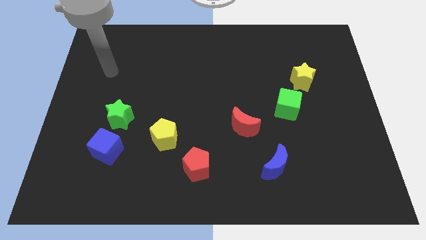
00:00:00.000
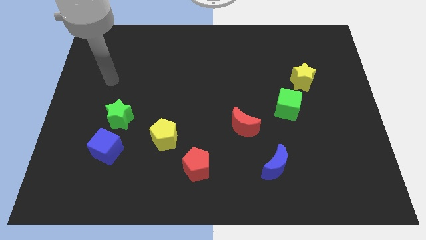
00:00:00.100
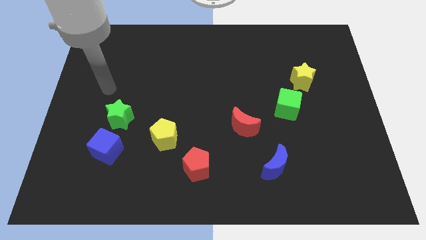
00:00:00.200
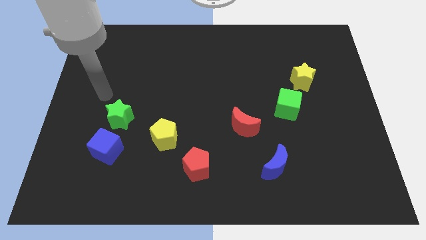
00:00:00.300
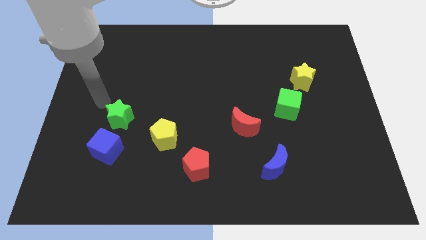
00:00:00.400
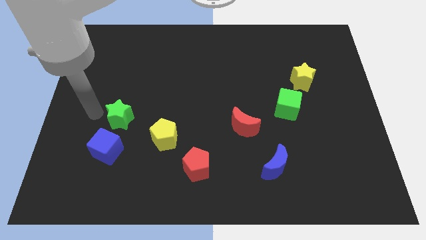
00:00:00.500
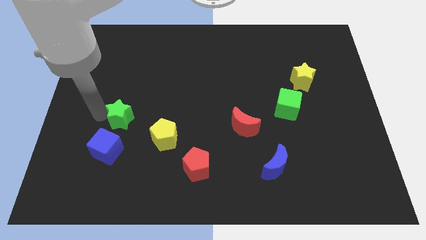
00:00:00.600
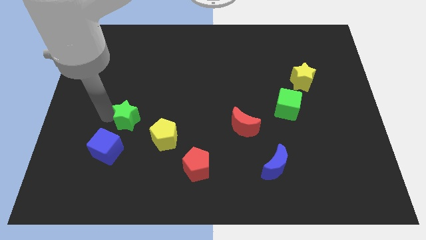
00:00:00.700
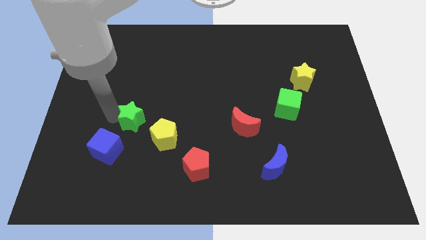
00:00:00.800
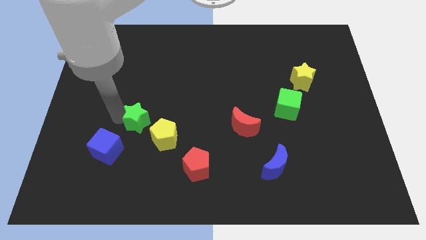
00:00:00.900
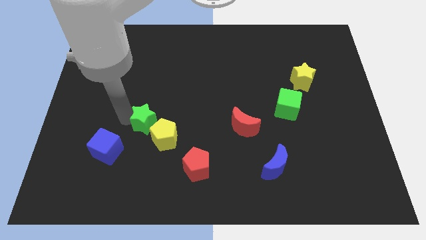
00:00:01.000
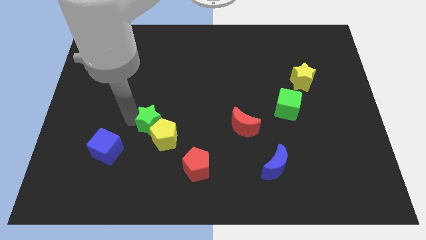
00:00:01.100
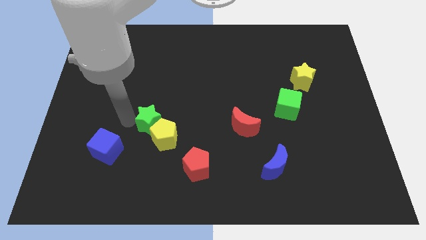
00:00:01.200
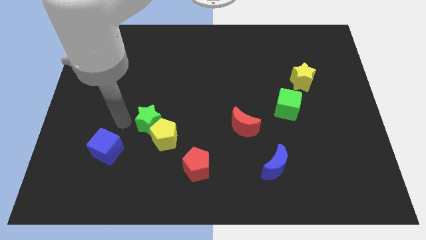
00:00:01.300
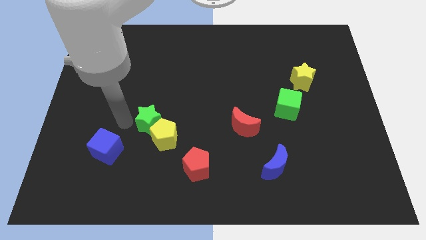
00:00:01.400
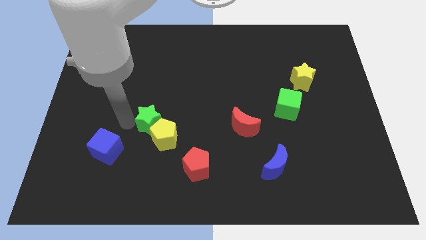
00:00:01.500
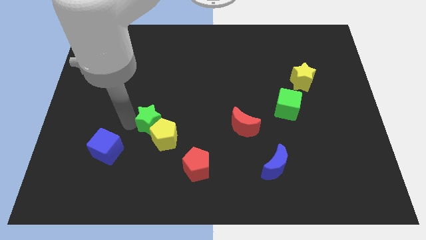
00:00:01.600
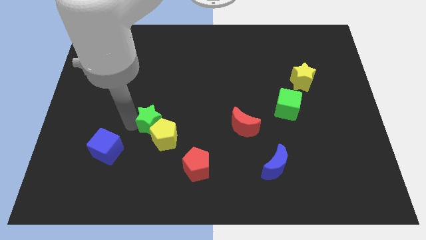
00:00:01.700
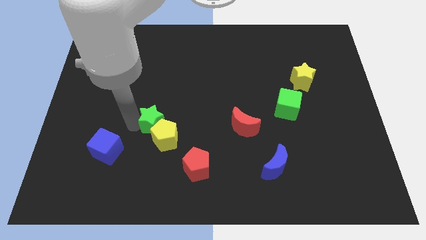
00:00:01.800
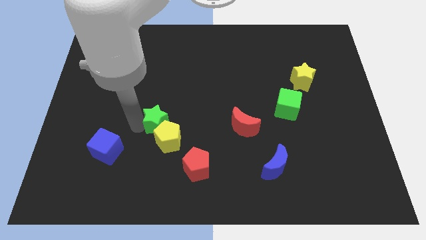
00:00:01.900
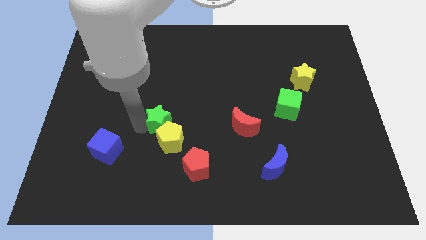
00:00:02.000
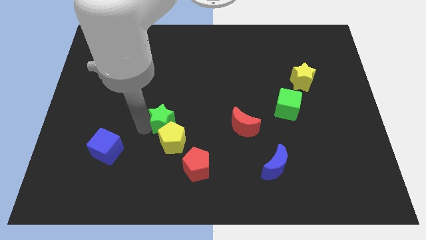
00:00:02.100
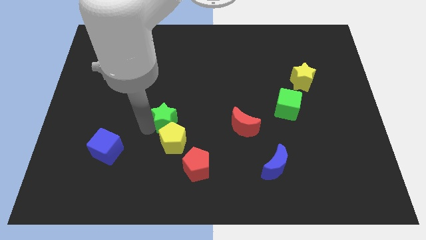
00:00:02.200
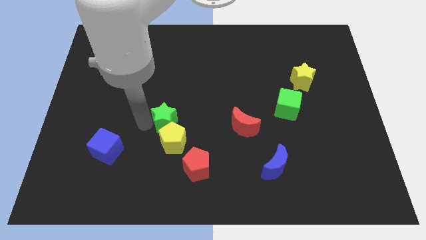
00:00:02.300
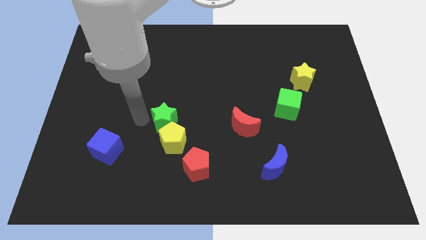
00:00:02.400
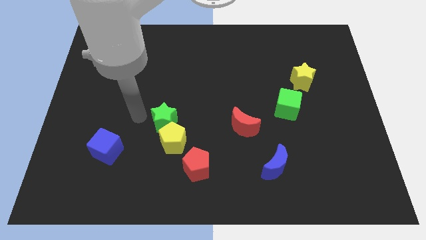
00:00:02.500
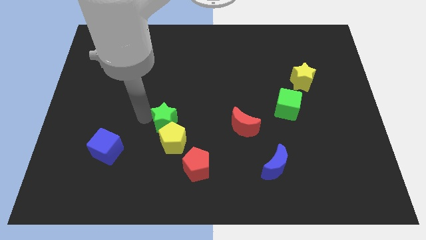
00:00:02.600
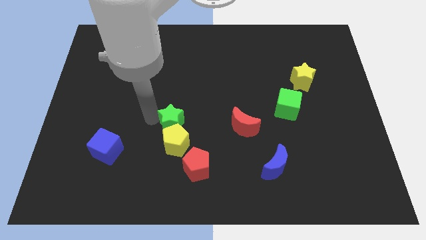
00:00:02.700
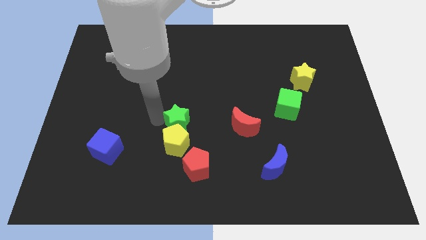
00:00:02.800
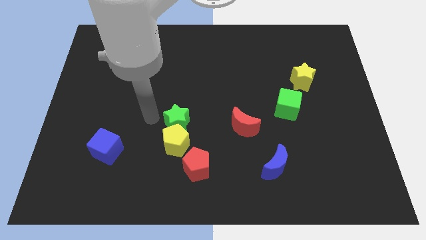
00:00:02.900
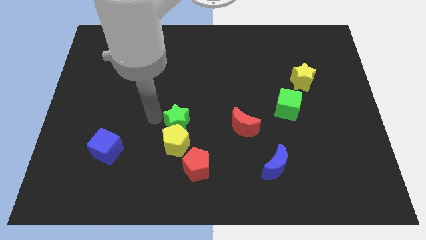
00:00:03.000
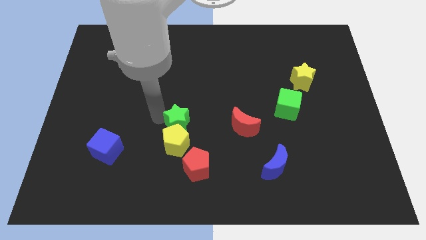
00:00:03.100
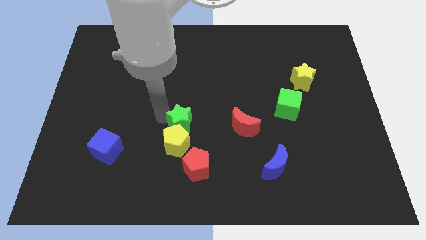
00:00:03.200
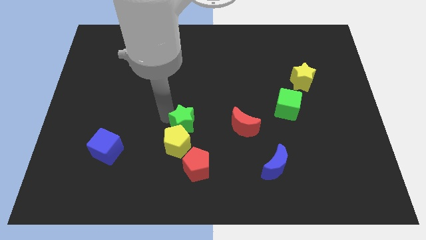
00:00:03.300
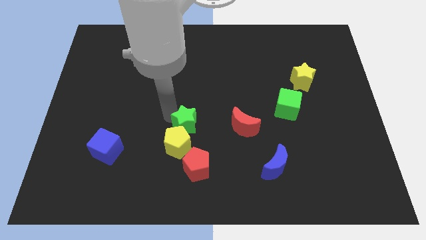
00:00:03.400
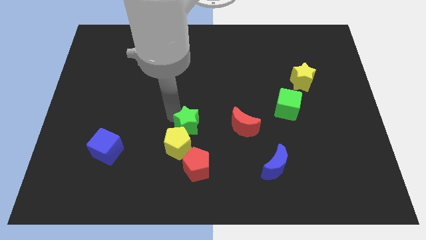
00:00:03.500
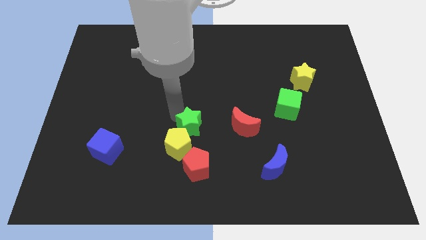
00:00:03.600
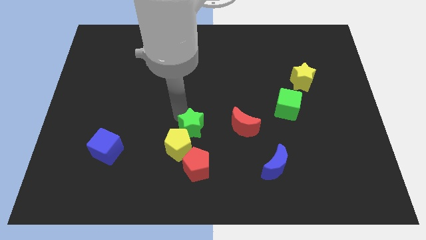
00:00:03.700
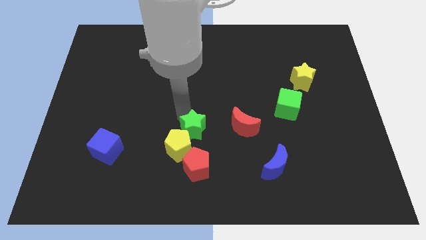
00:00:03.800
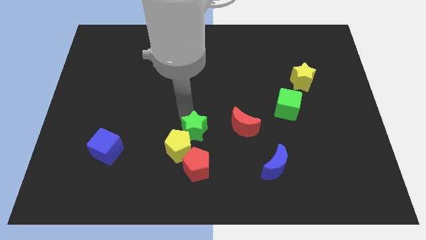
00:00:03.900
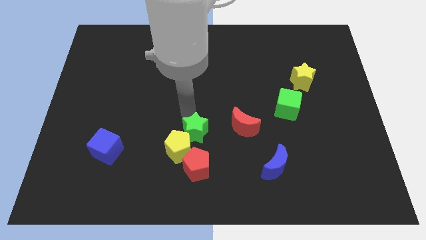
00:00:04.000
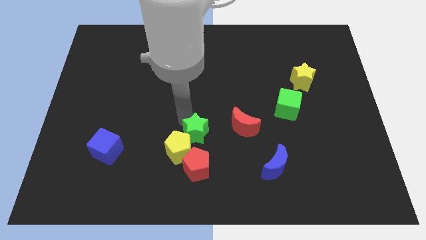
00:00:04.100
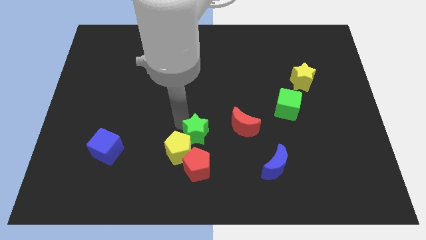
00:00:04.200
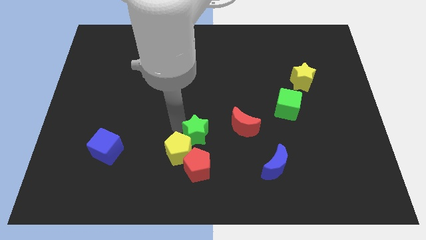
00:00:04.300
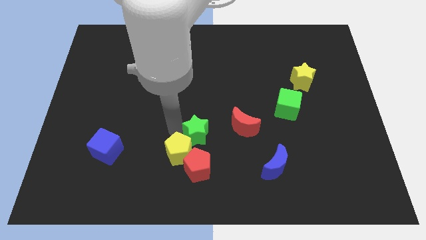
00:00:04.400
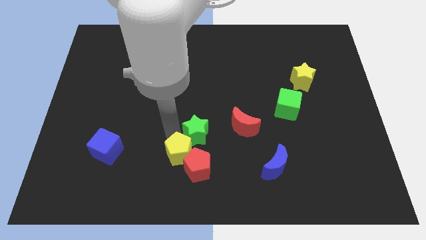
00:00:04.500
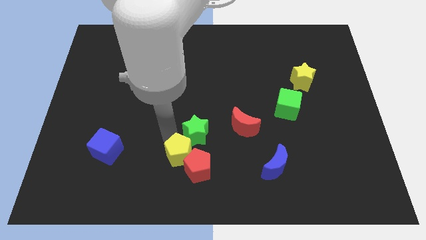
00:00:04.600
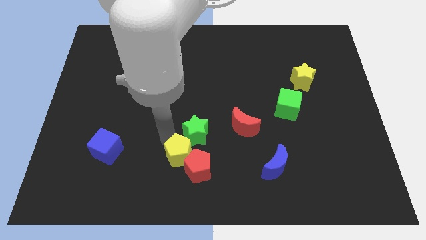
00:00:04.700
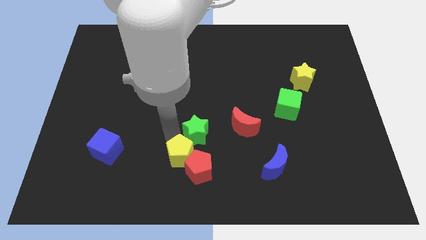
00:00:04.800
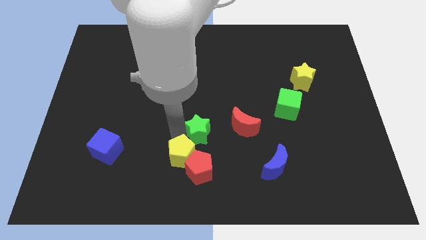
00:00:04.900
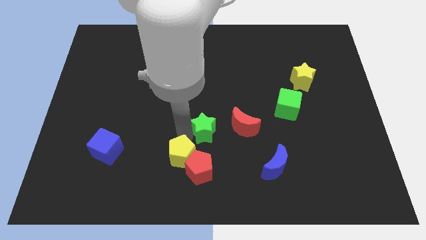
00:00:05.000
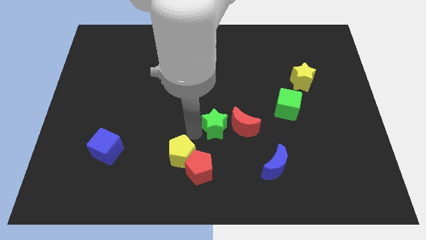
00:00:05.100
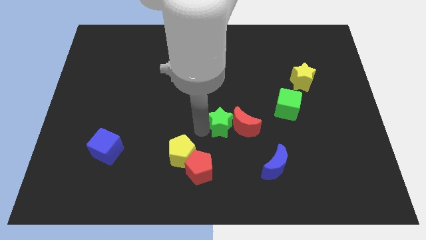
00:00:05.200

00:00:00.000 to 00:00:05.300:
slide the green star to the red moon

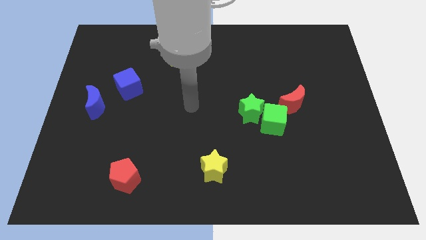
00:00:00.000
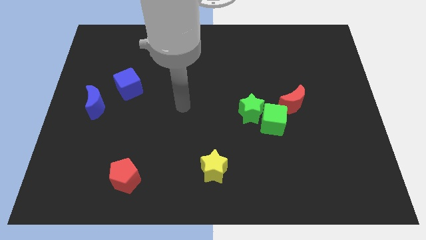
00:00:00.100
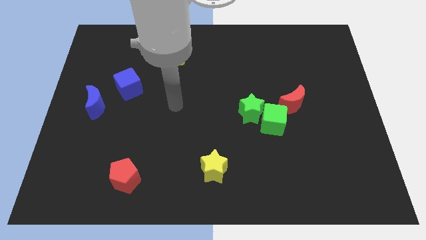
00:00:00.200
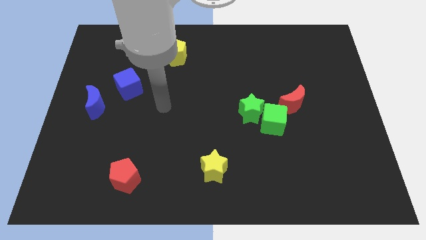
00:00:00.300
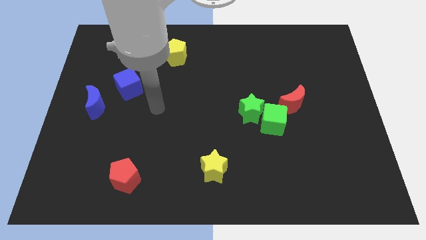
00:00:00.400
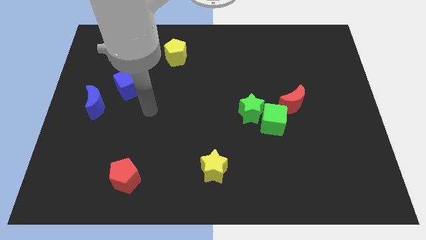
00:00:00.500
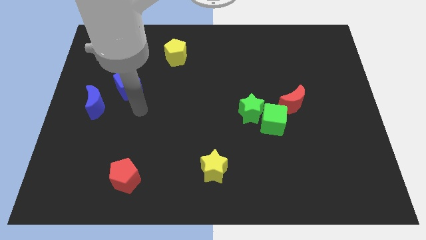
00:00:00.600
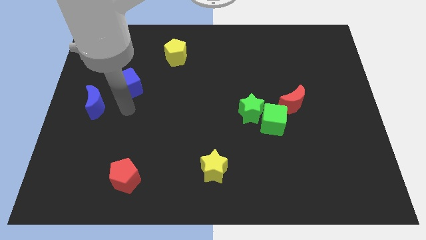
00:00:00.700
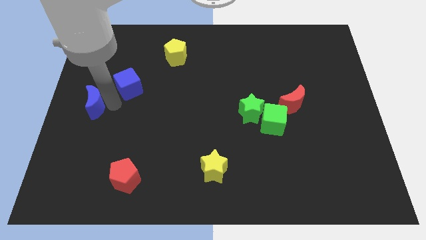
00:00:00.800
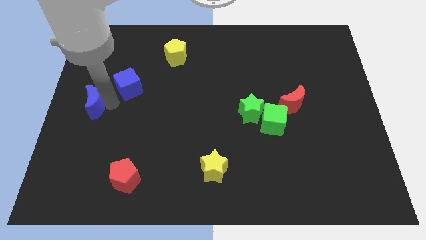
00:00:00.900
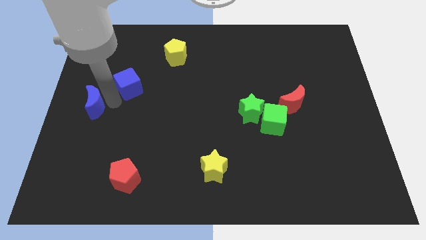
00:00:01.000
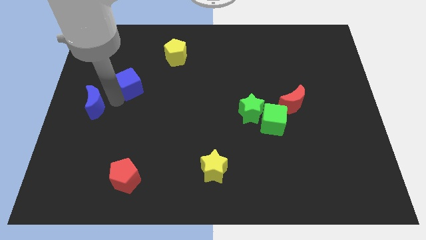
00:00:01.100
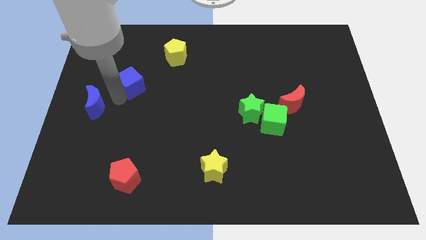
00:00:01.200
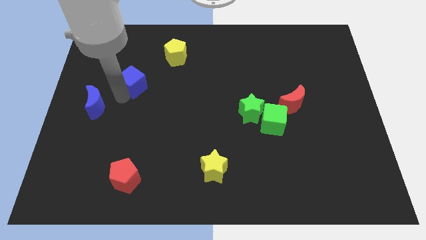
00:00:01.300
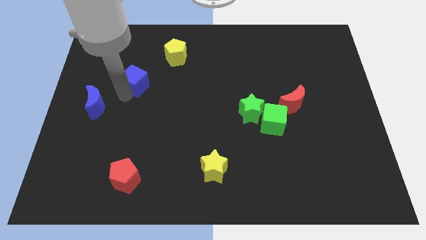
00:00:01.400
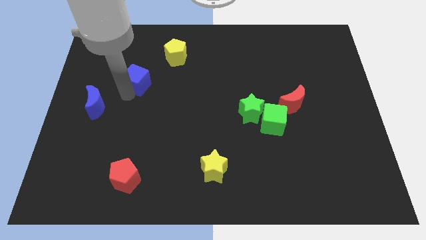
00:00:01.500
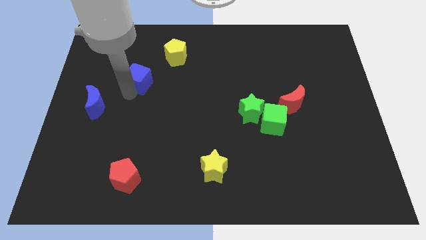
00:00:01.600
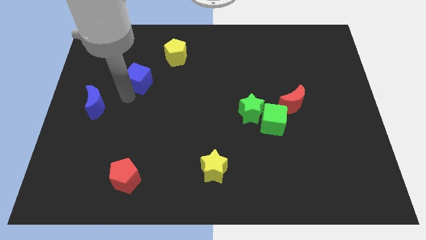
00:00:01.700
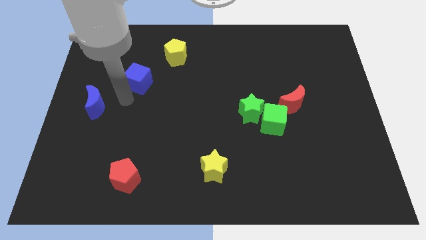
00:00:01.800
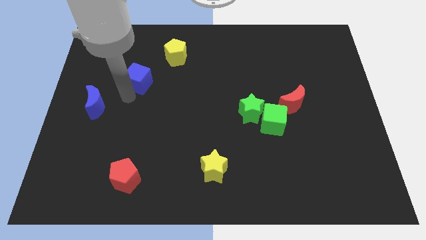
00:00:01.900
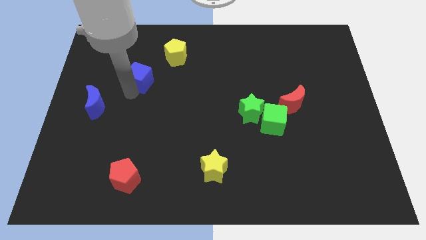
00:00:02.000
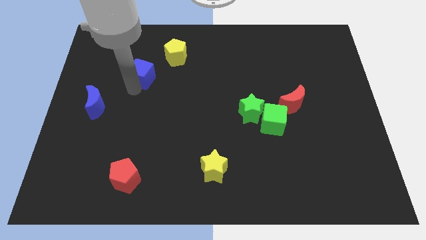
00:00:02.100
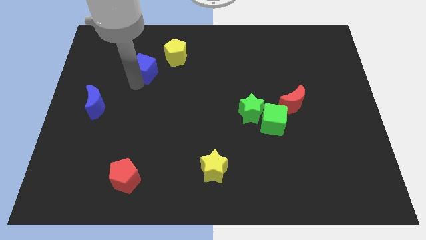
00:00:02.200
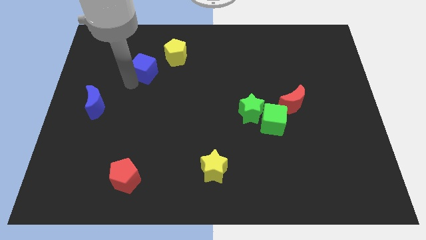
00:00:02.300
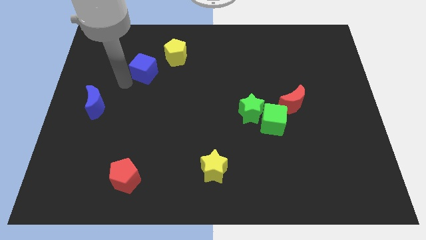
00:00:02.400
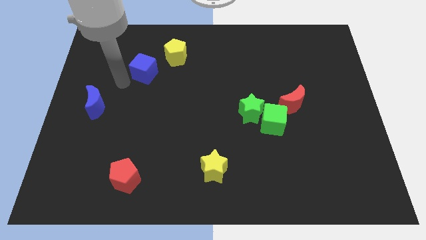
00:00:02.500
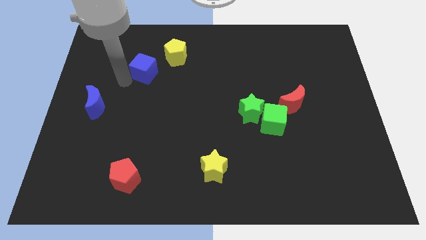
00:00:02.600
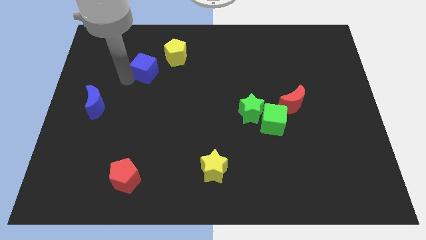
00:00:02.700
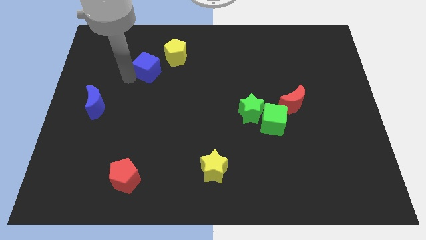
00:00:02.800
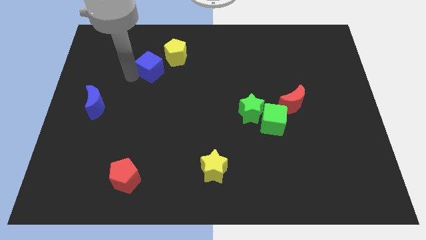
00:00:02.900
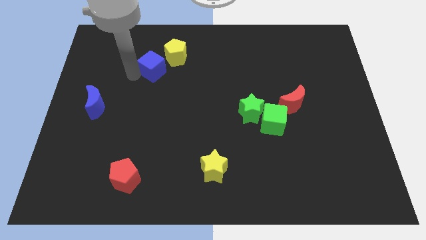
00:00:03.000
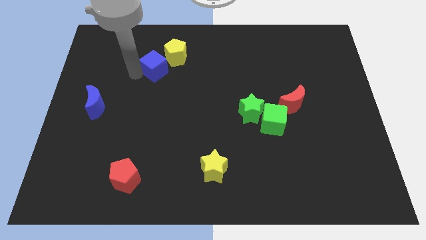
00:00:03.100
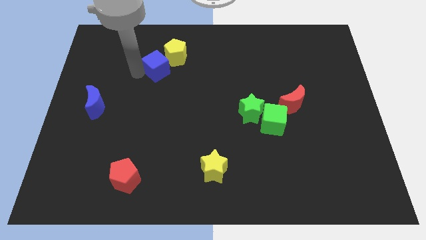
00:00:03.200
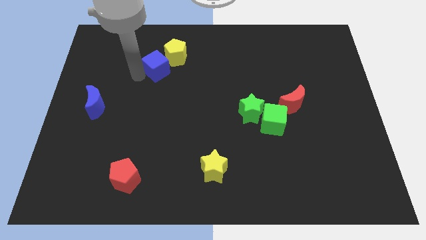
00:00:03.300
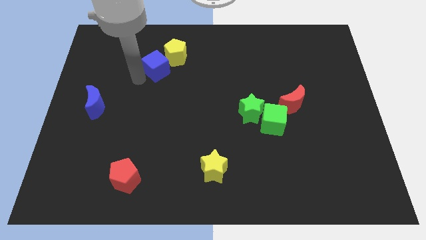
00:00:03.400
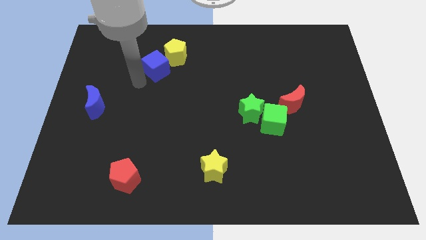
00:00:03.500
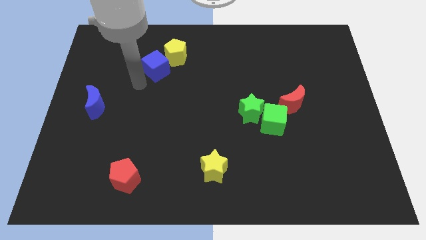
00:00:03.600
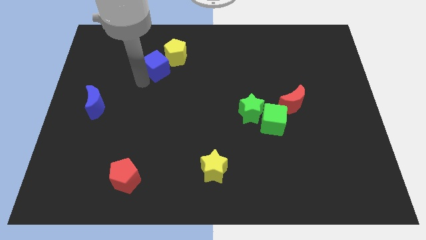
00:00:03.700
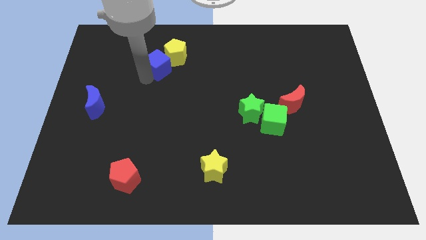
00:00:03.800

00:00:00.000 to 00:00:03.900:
slide the blue cube towards the yellow pentagon
